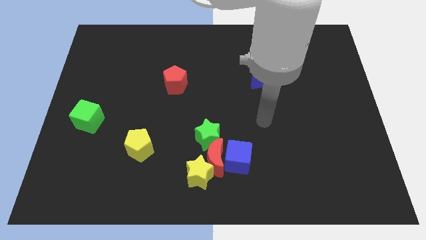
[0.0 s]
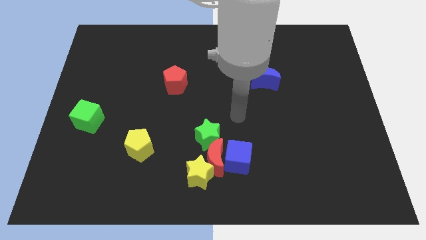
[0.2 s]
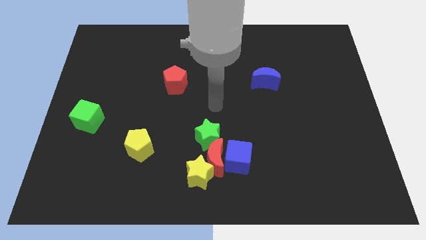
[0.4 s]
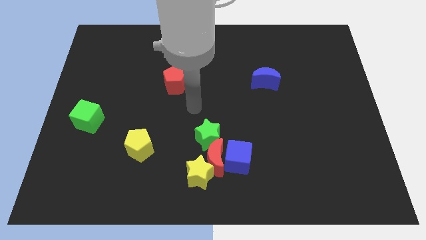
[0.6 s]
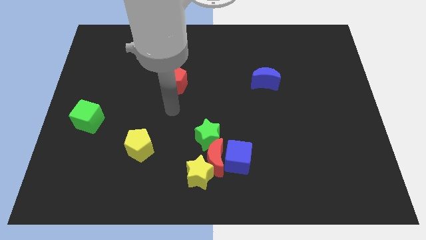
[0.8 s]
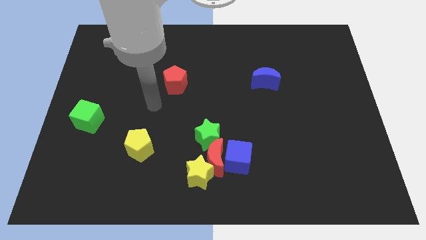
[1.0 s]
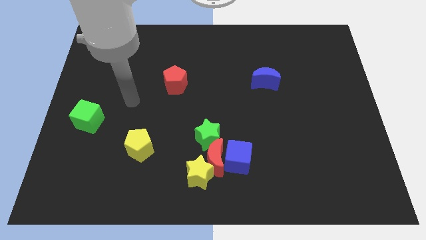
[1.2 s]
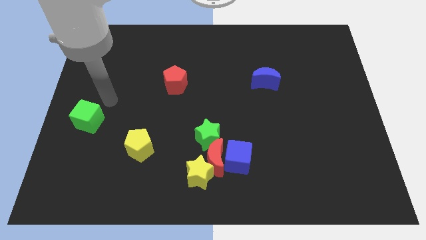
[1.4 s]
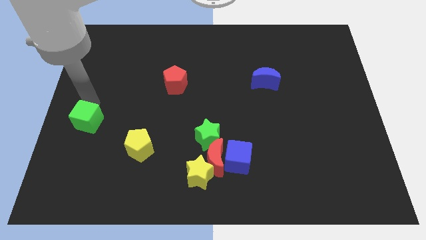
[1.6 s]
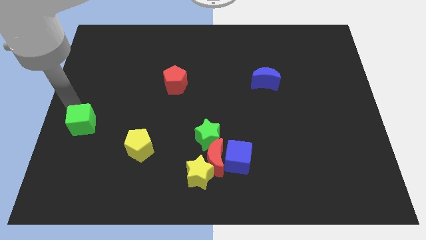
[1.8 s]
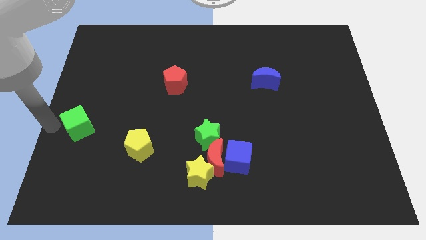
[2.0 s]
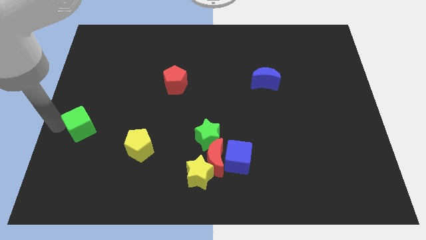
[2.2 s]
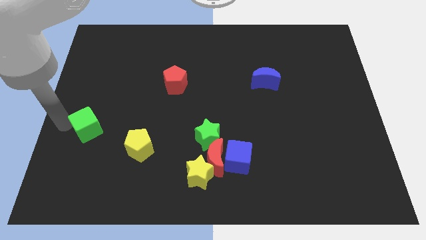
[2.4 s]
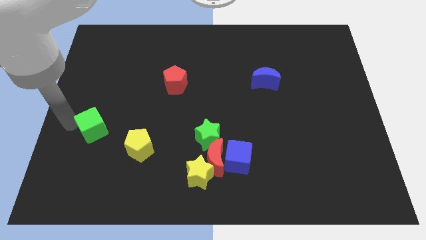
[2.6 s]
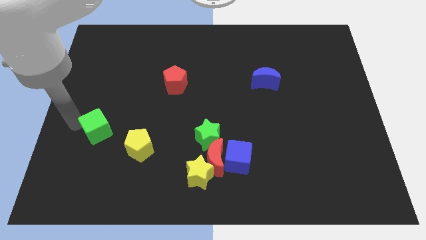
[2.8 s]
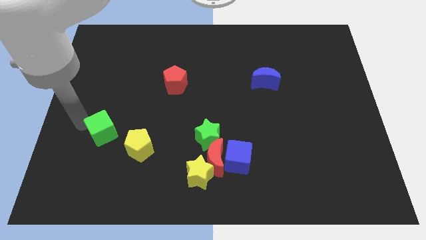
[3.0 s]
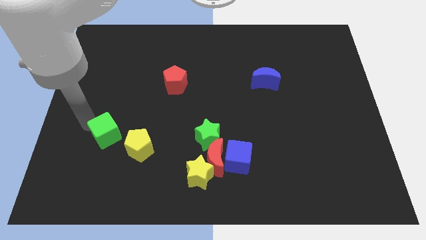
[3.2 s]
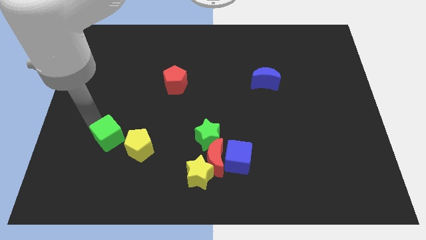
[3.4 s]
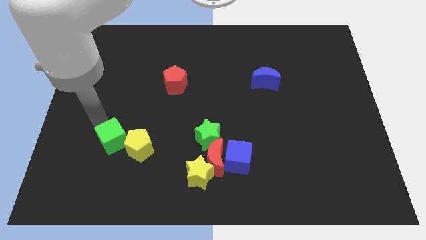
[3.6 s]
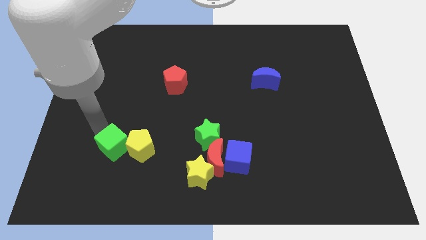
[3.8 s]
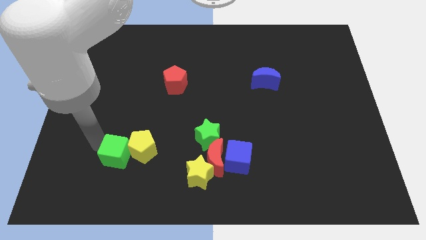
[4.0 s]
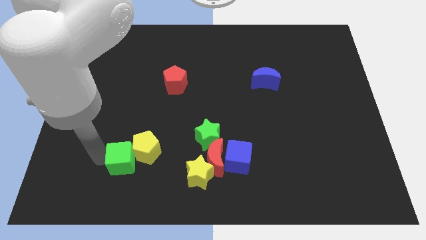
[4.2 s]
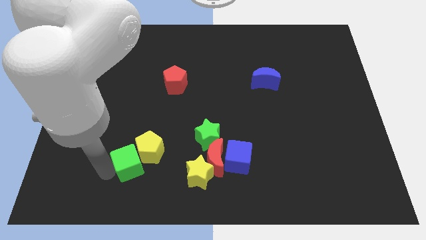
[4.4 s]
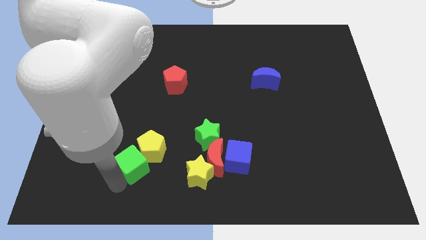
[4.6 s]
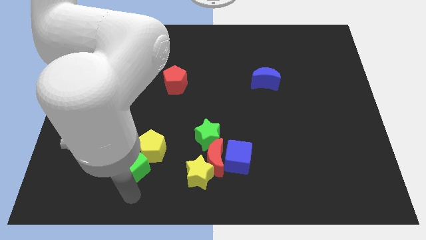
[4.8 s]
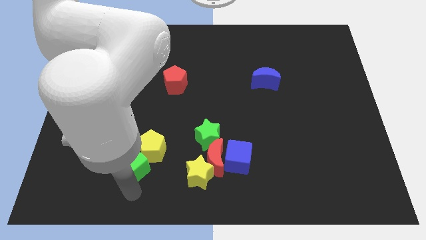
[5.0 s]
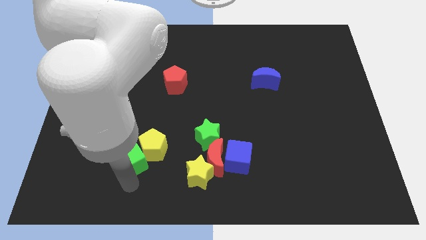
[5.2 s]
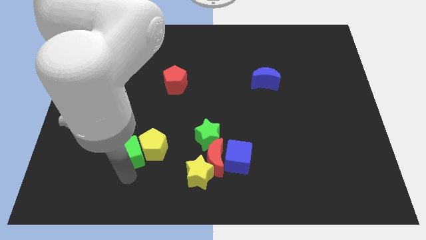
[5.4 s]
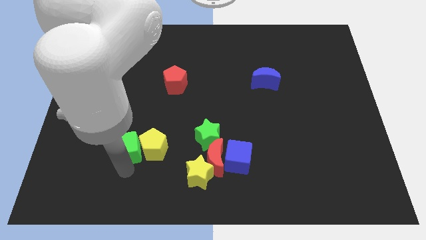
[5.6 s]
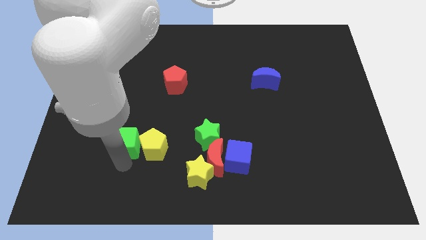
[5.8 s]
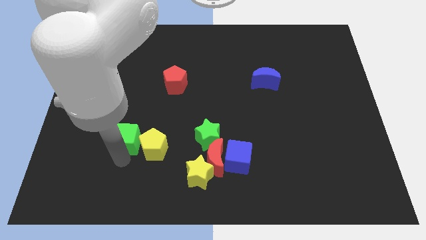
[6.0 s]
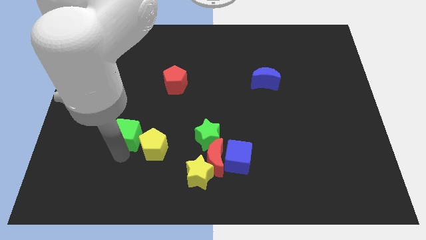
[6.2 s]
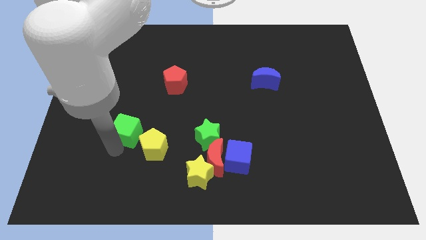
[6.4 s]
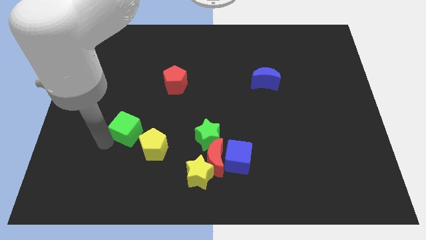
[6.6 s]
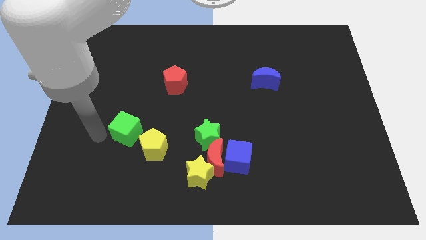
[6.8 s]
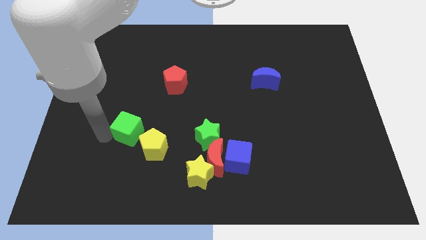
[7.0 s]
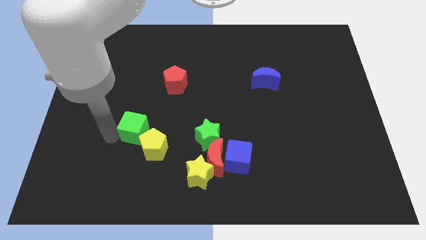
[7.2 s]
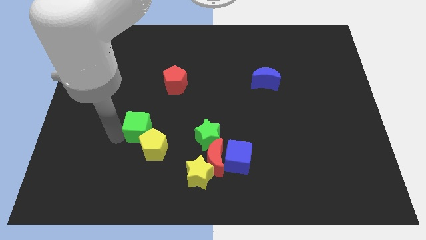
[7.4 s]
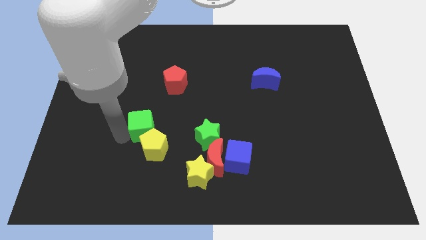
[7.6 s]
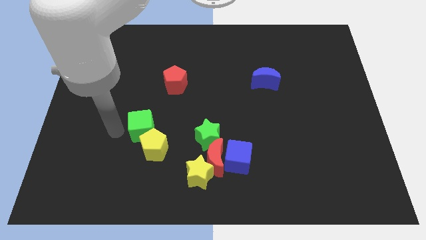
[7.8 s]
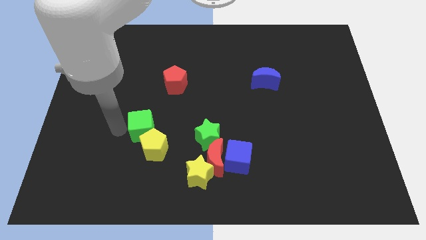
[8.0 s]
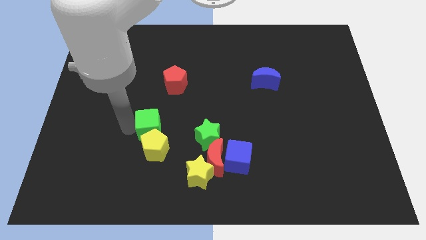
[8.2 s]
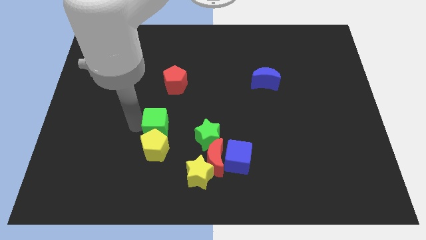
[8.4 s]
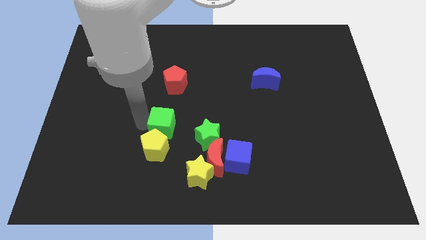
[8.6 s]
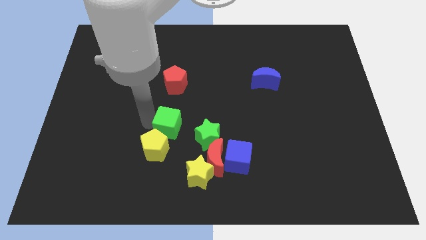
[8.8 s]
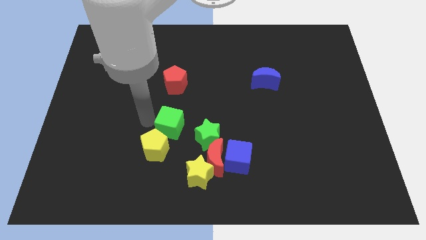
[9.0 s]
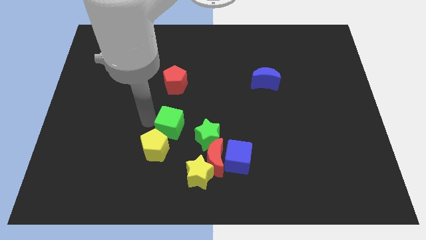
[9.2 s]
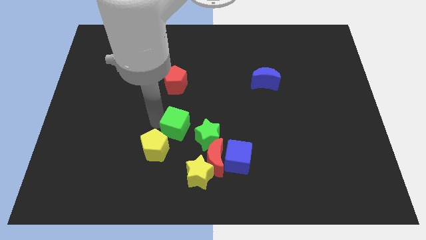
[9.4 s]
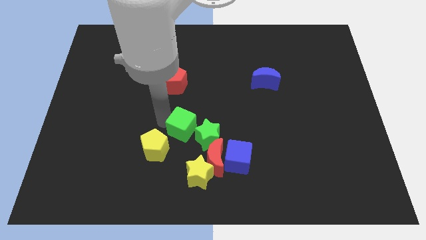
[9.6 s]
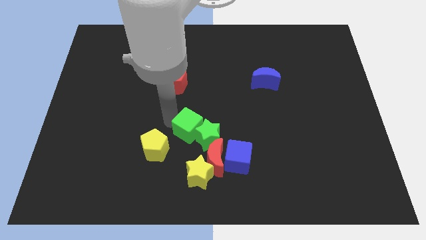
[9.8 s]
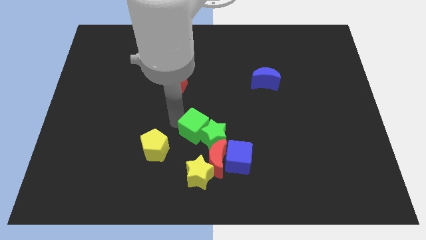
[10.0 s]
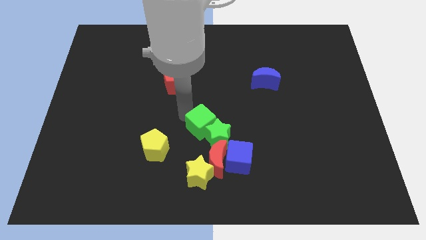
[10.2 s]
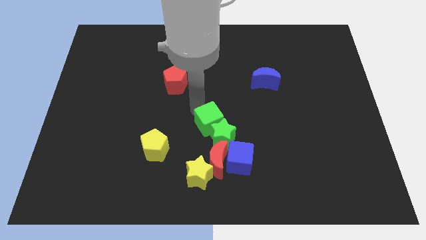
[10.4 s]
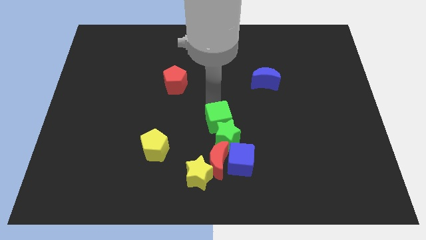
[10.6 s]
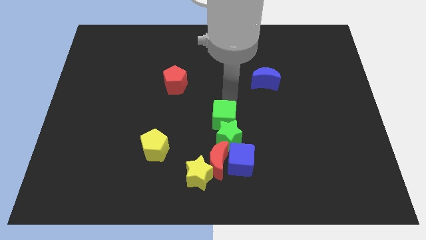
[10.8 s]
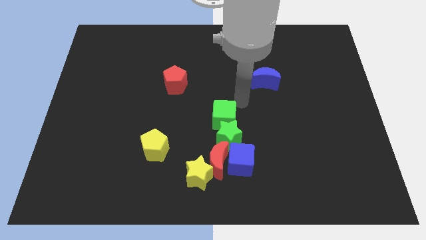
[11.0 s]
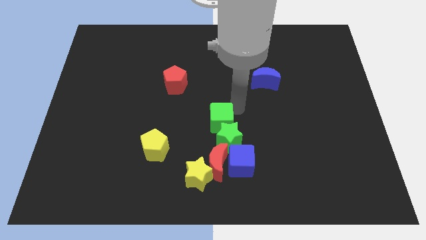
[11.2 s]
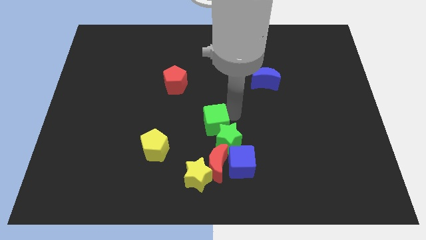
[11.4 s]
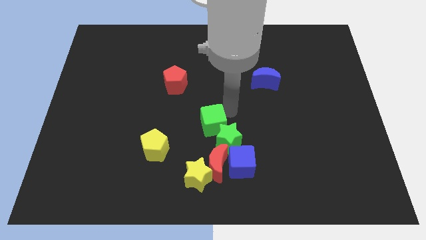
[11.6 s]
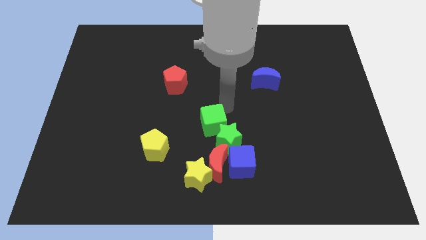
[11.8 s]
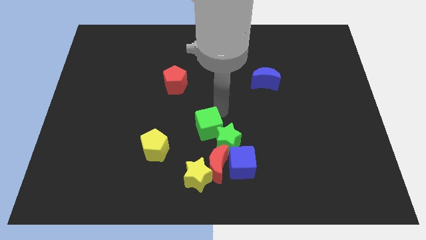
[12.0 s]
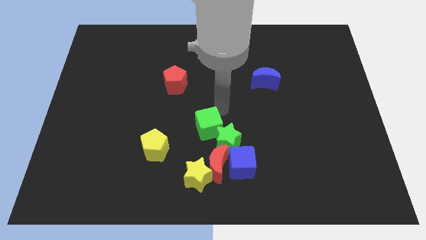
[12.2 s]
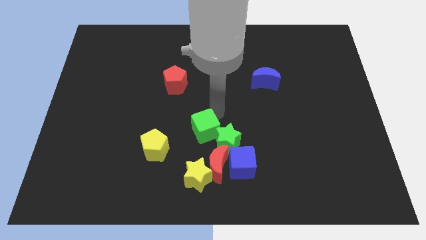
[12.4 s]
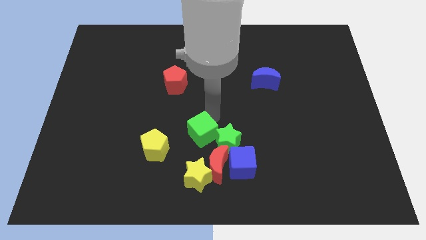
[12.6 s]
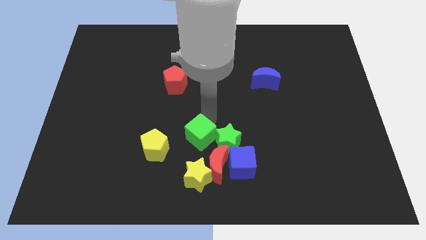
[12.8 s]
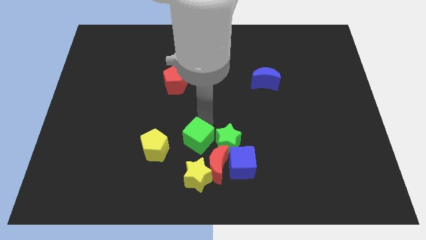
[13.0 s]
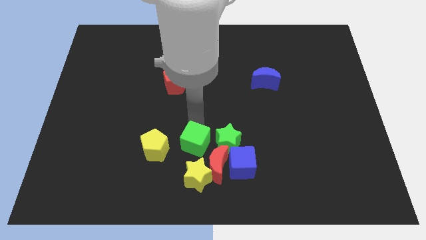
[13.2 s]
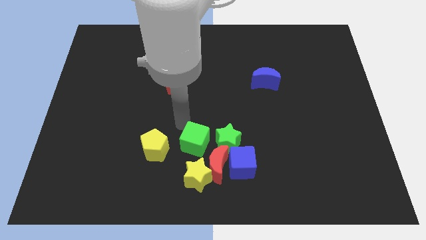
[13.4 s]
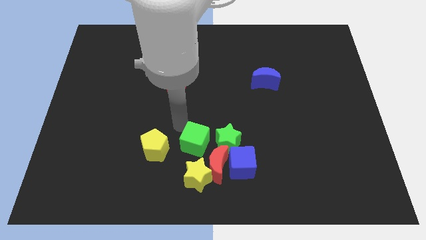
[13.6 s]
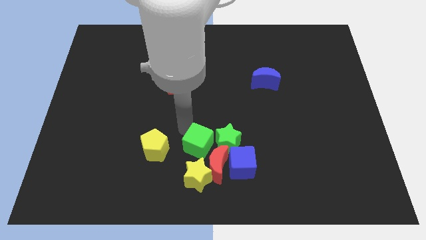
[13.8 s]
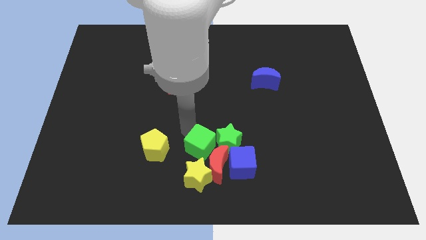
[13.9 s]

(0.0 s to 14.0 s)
push the green cube close to the red moon

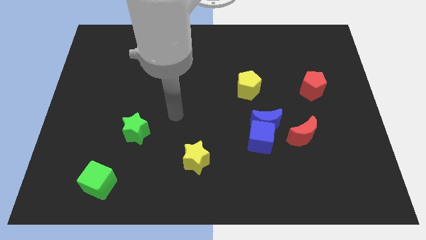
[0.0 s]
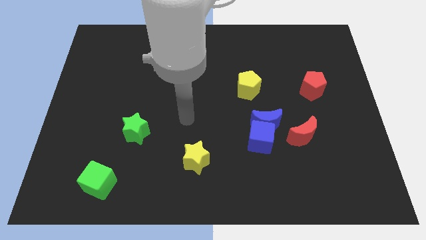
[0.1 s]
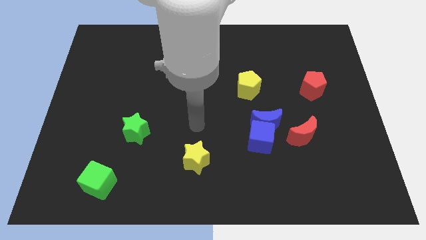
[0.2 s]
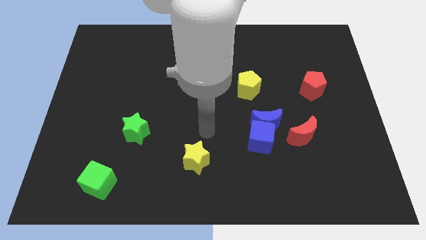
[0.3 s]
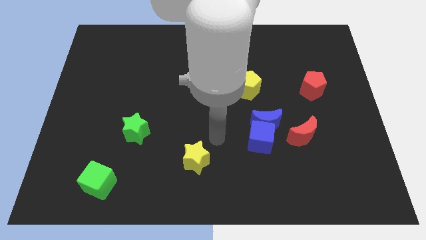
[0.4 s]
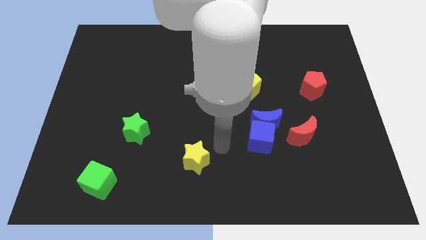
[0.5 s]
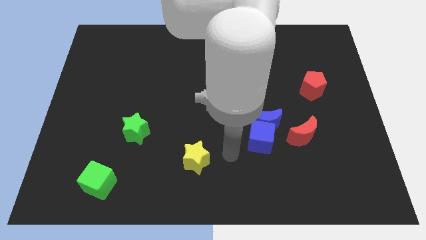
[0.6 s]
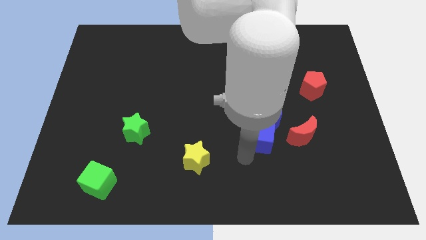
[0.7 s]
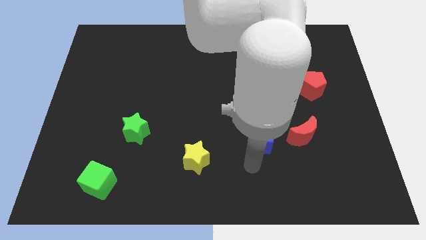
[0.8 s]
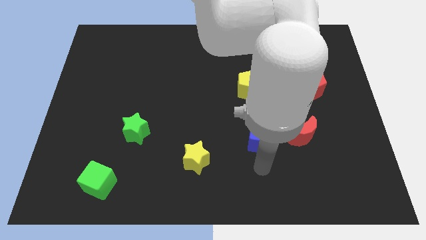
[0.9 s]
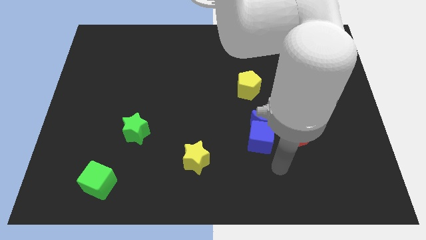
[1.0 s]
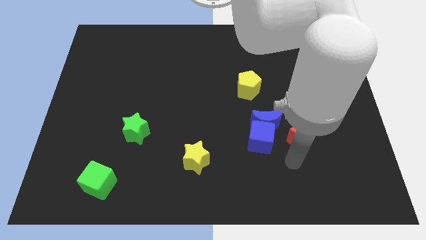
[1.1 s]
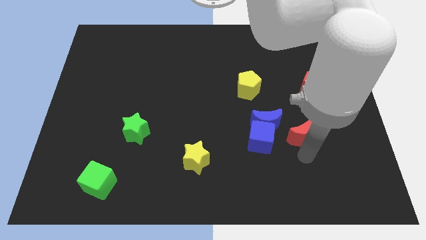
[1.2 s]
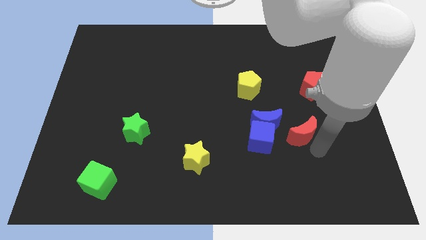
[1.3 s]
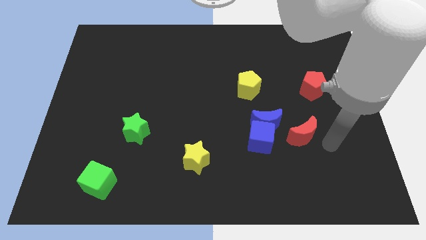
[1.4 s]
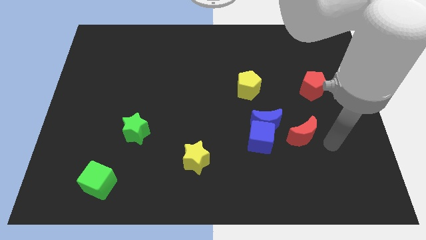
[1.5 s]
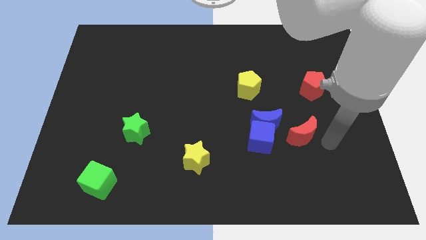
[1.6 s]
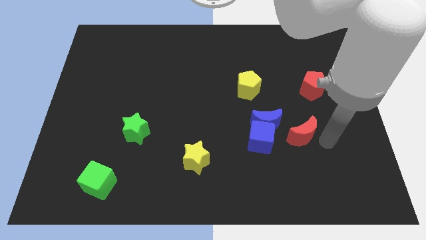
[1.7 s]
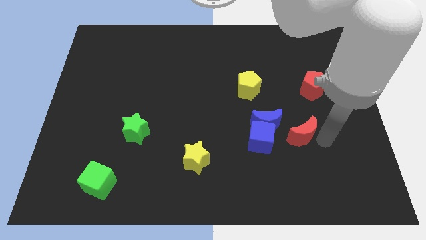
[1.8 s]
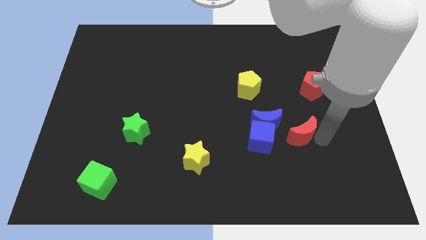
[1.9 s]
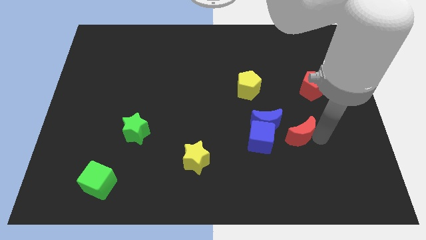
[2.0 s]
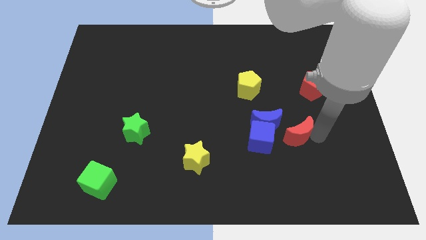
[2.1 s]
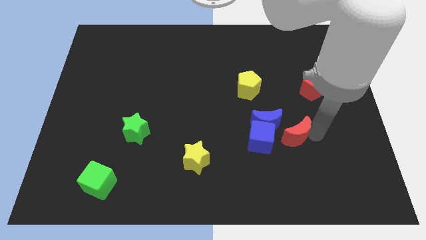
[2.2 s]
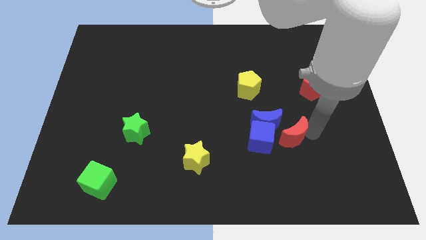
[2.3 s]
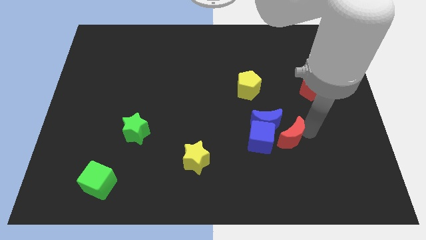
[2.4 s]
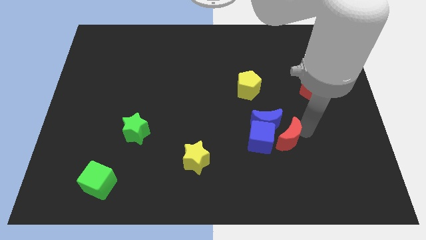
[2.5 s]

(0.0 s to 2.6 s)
move the red moon to the blue moon
